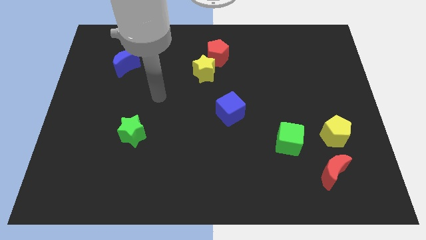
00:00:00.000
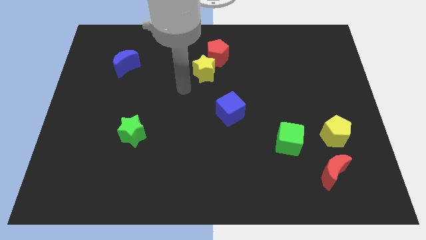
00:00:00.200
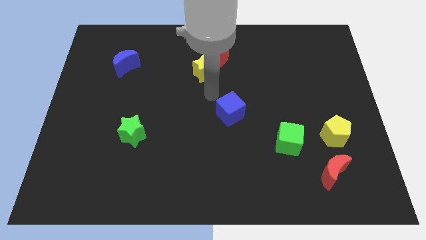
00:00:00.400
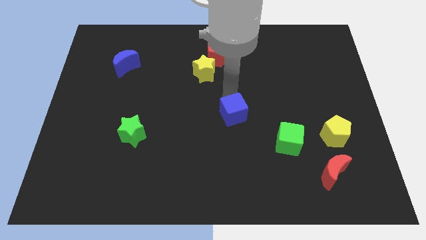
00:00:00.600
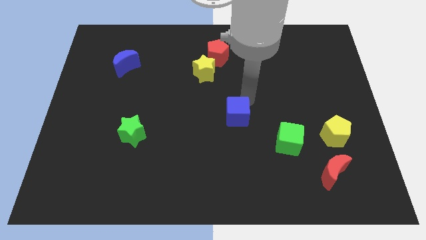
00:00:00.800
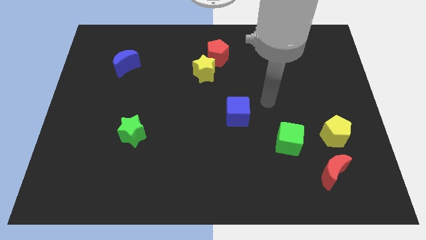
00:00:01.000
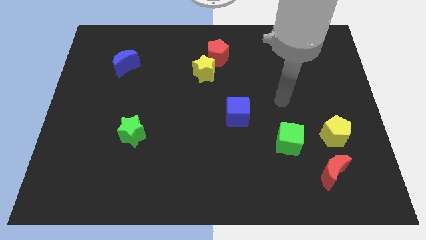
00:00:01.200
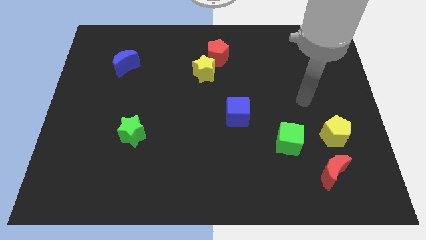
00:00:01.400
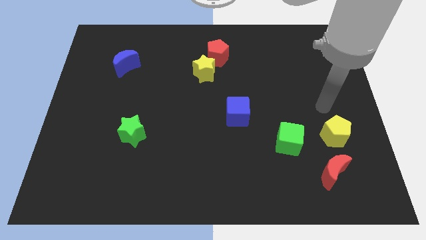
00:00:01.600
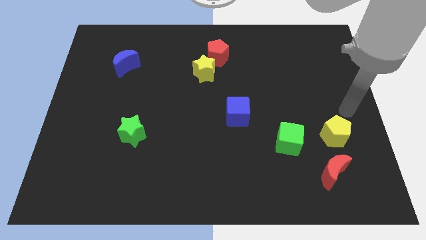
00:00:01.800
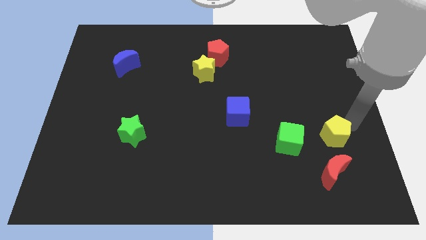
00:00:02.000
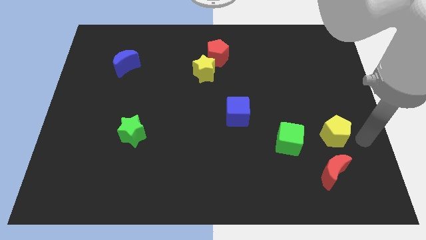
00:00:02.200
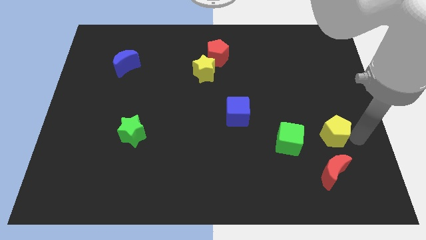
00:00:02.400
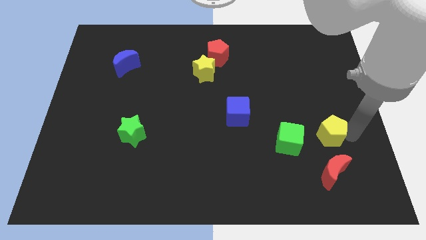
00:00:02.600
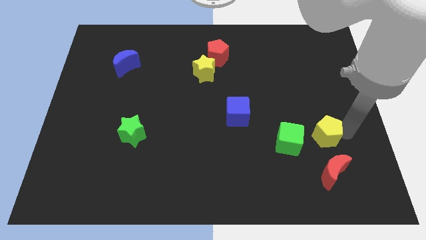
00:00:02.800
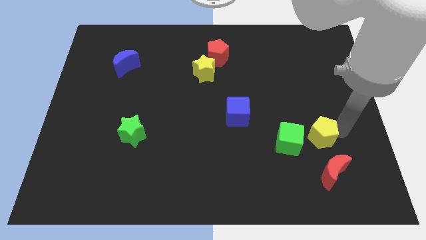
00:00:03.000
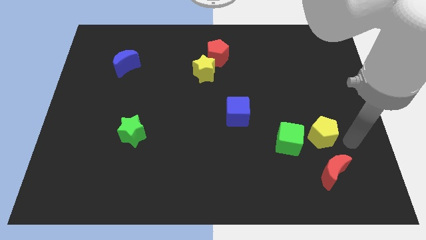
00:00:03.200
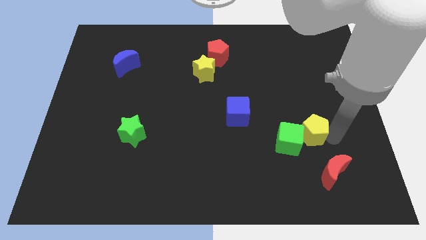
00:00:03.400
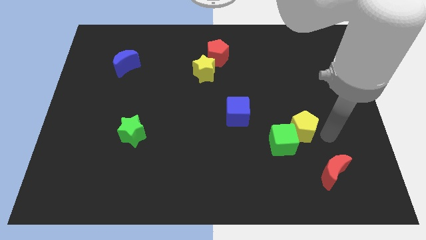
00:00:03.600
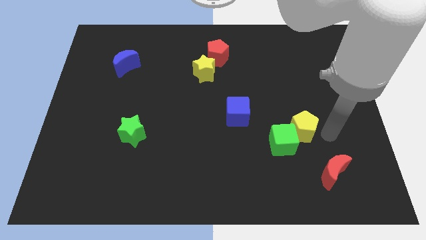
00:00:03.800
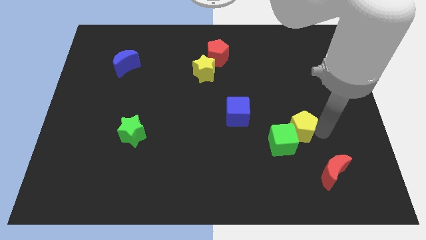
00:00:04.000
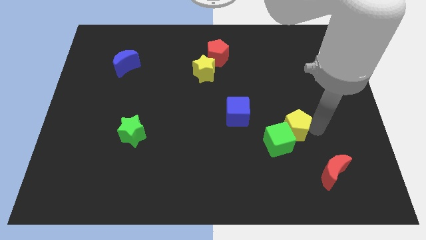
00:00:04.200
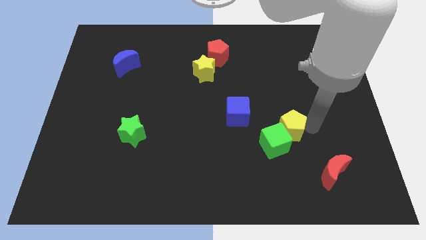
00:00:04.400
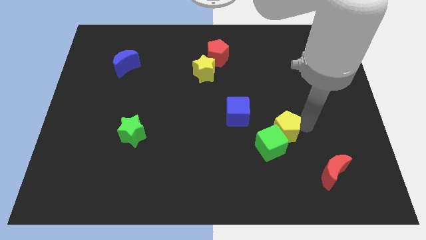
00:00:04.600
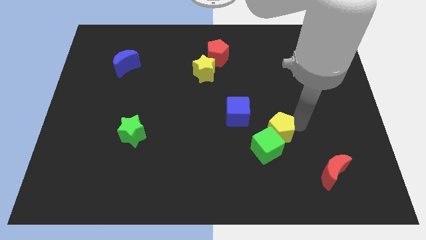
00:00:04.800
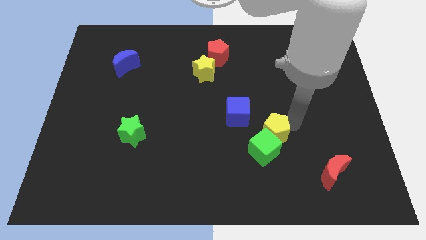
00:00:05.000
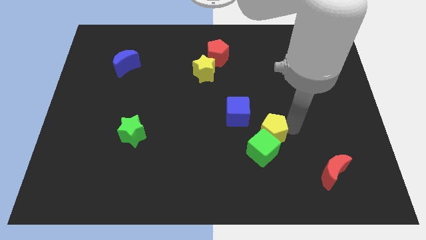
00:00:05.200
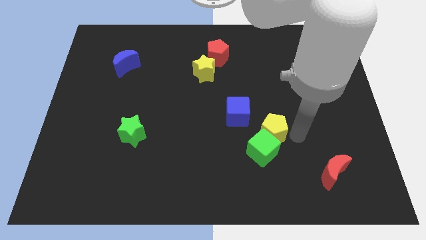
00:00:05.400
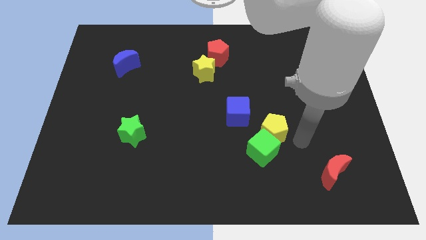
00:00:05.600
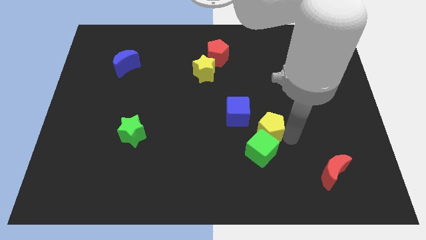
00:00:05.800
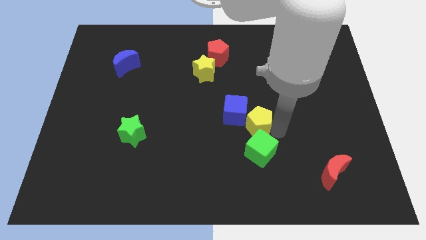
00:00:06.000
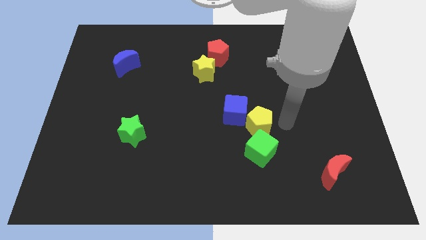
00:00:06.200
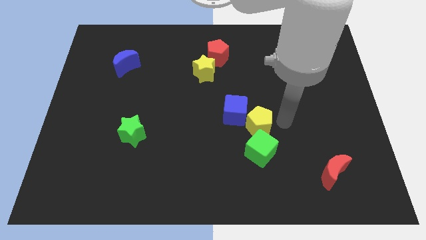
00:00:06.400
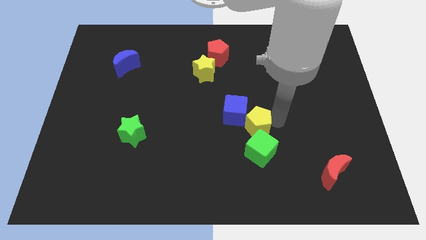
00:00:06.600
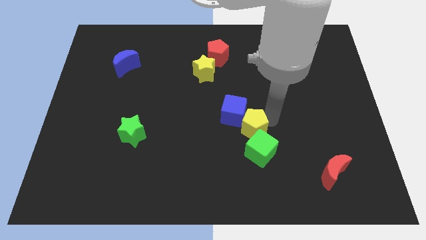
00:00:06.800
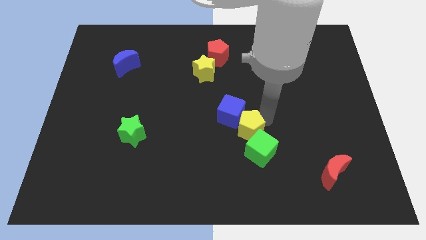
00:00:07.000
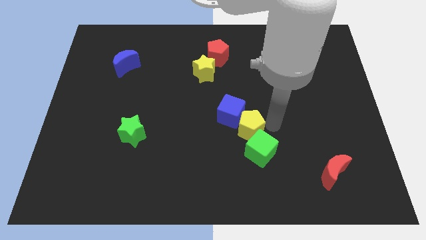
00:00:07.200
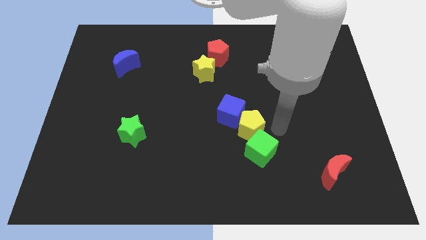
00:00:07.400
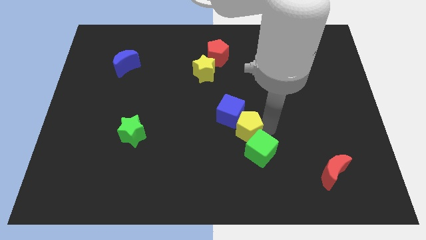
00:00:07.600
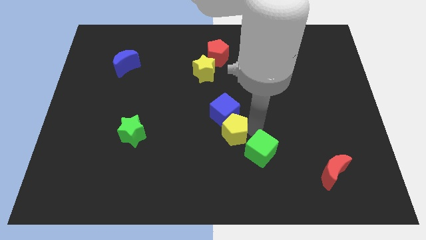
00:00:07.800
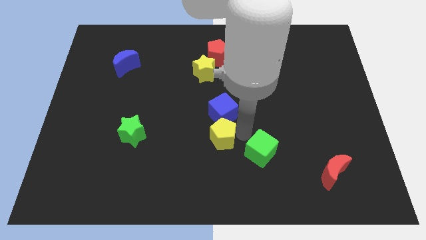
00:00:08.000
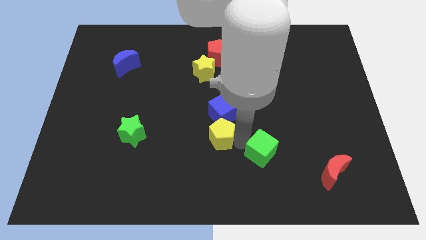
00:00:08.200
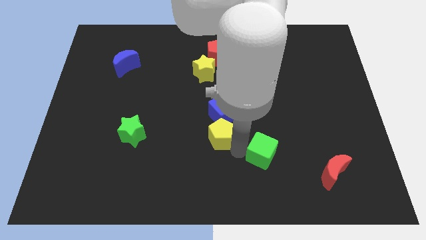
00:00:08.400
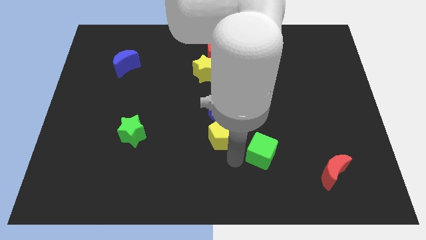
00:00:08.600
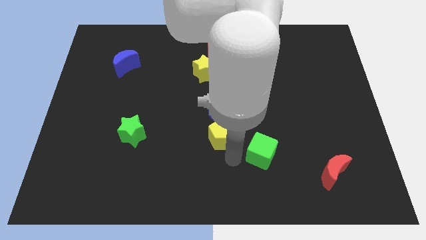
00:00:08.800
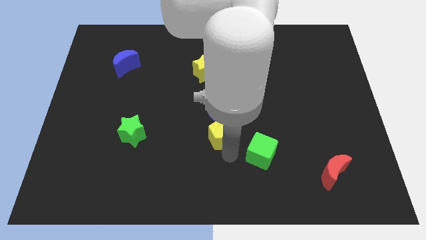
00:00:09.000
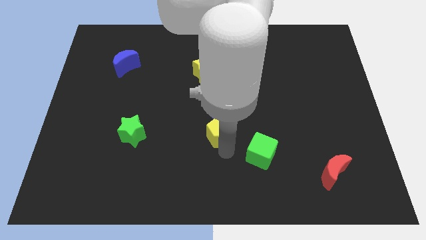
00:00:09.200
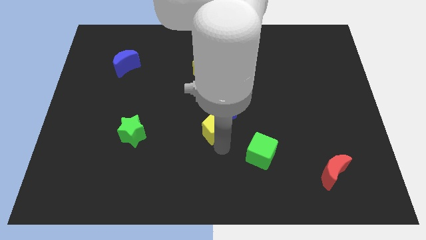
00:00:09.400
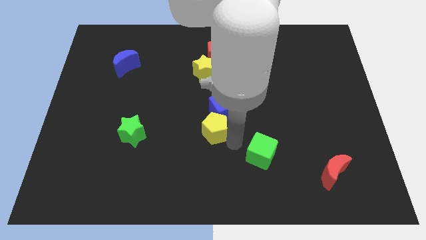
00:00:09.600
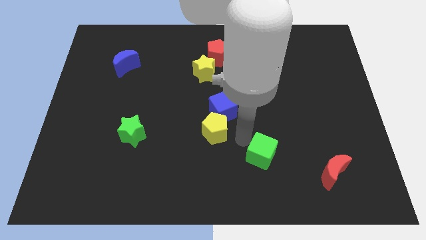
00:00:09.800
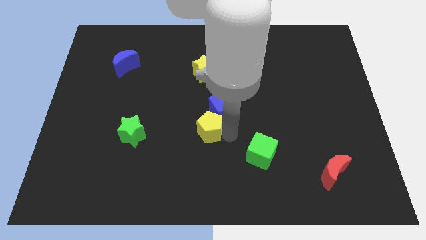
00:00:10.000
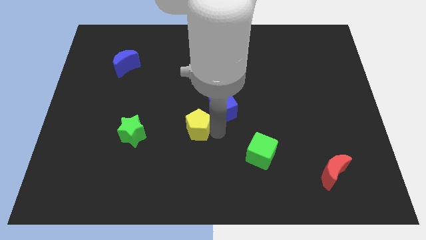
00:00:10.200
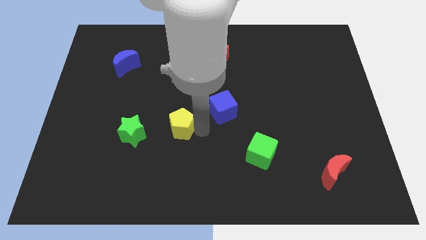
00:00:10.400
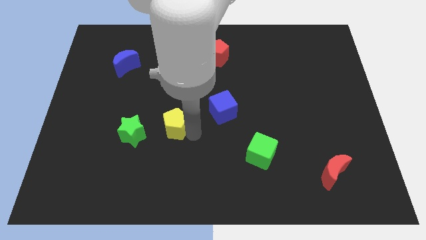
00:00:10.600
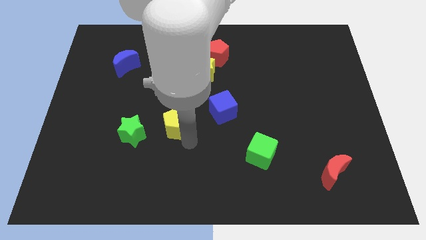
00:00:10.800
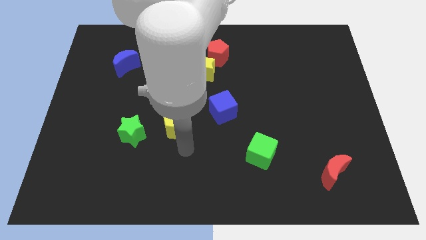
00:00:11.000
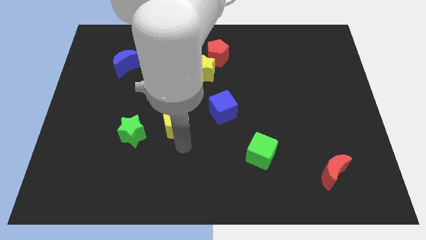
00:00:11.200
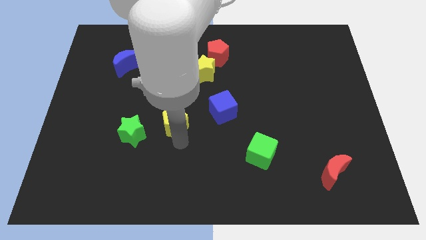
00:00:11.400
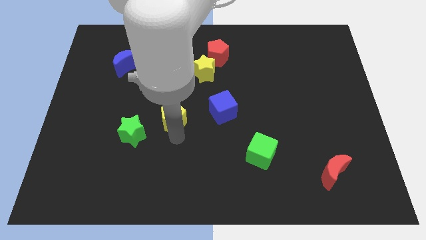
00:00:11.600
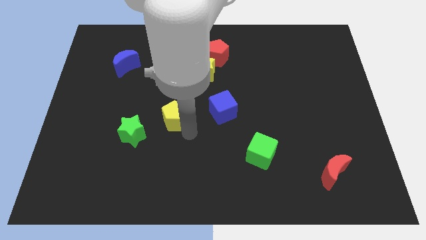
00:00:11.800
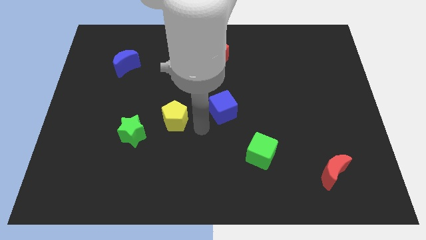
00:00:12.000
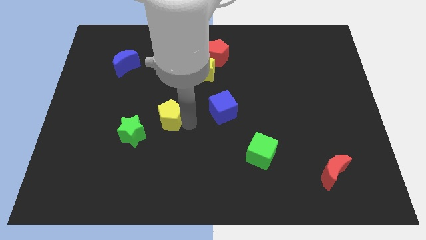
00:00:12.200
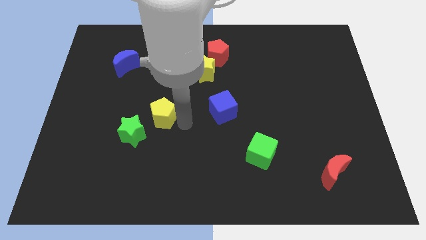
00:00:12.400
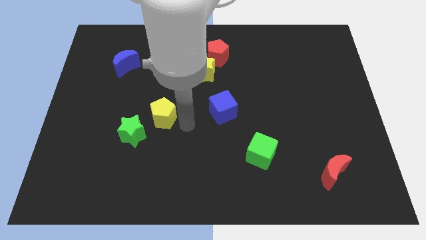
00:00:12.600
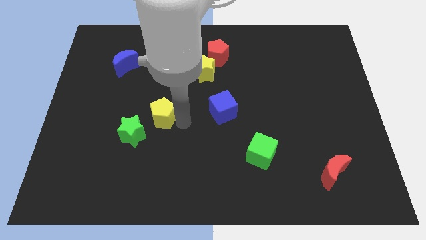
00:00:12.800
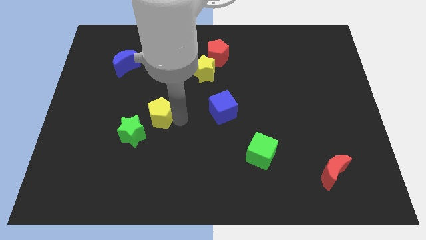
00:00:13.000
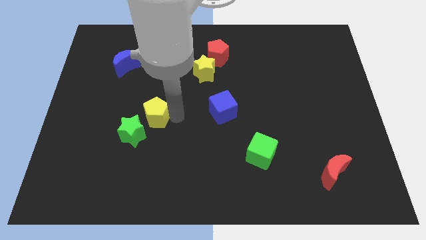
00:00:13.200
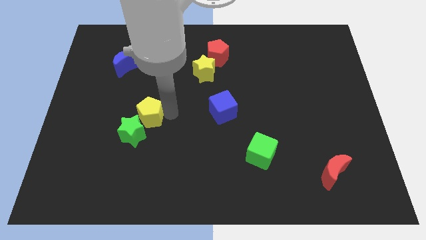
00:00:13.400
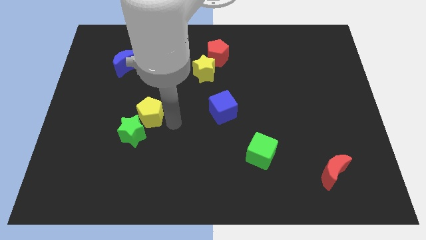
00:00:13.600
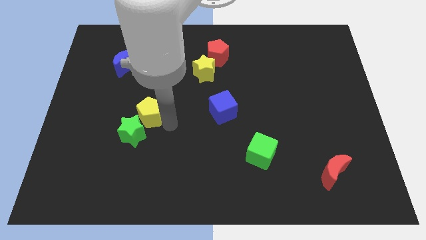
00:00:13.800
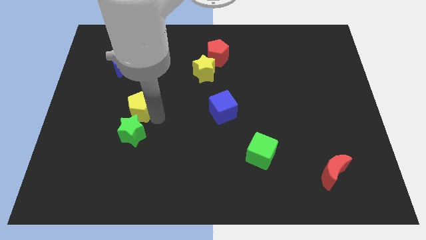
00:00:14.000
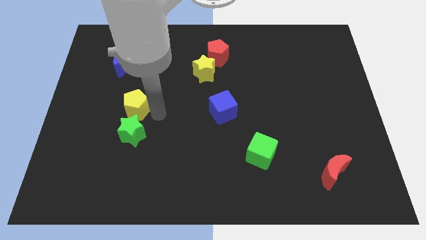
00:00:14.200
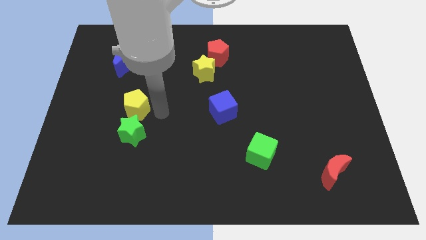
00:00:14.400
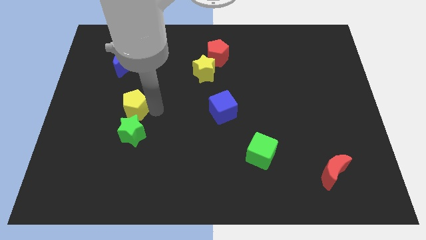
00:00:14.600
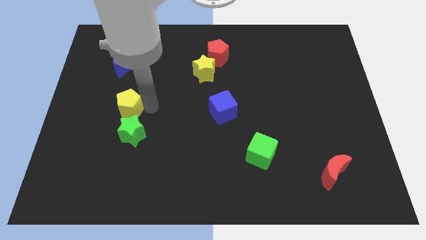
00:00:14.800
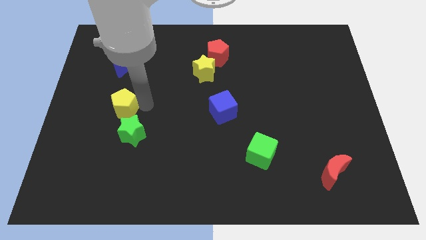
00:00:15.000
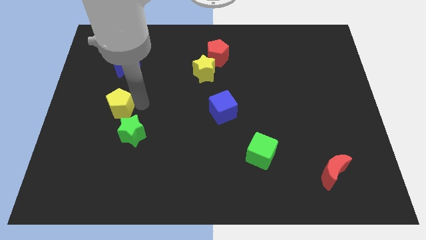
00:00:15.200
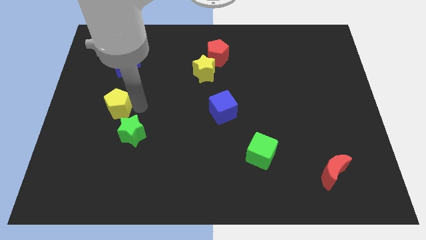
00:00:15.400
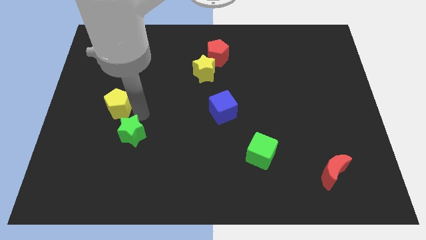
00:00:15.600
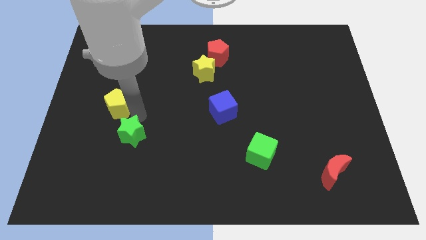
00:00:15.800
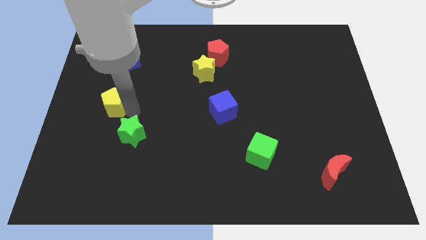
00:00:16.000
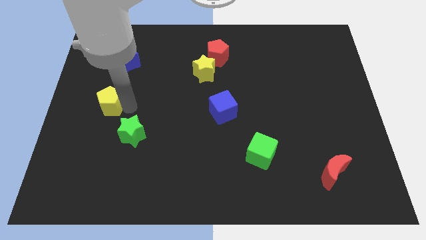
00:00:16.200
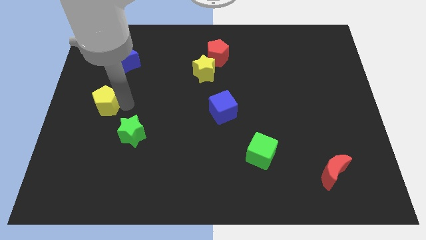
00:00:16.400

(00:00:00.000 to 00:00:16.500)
put the yellow pentagon to the center left
